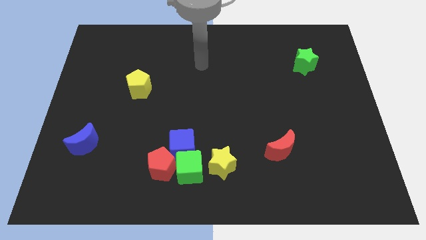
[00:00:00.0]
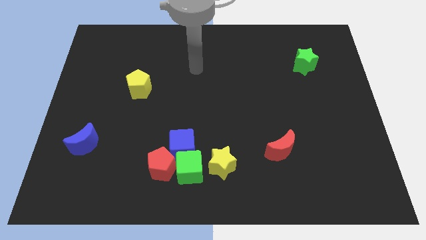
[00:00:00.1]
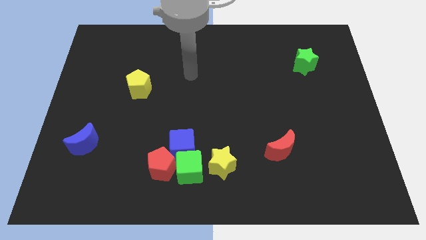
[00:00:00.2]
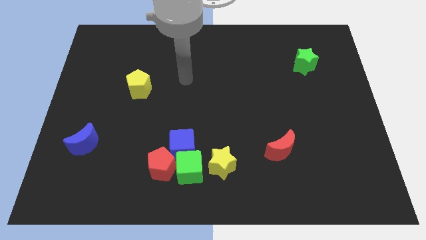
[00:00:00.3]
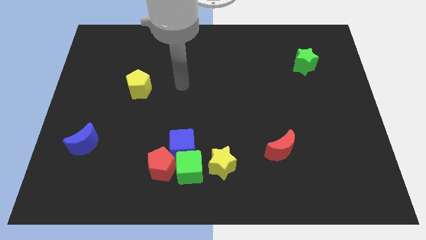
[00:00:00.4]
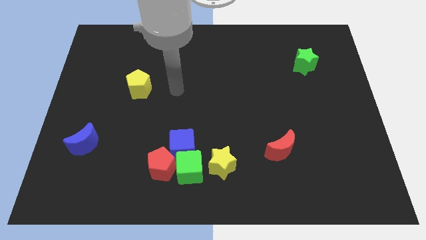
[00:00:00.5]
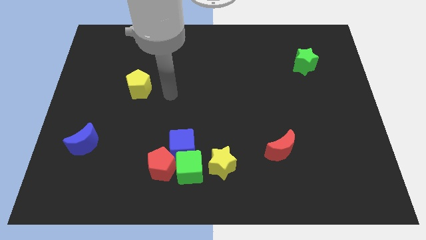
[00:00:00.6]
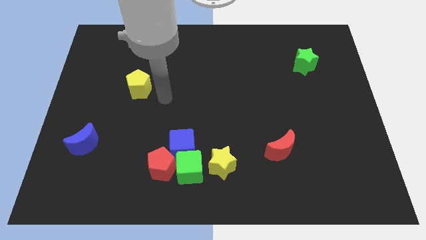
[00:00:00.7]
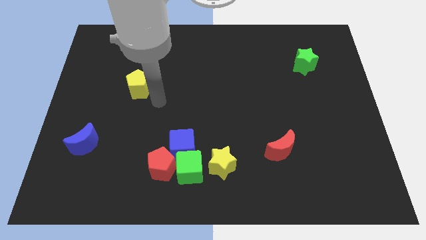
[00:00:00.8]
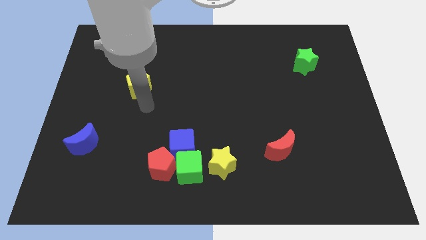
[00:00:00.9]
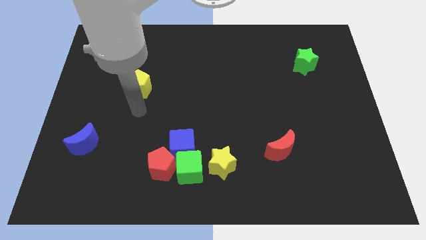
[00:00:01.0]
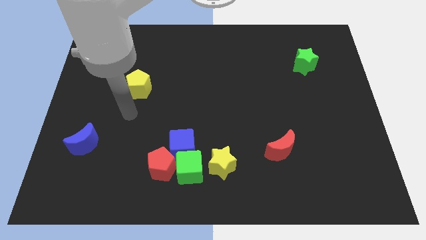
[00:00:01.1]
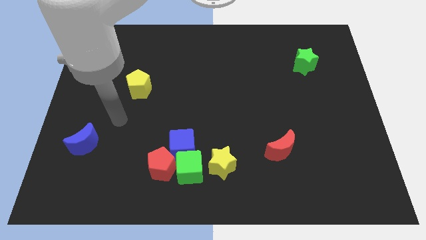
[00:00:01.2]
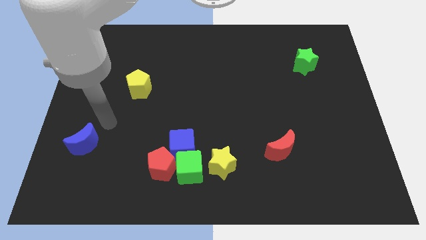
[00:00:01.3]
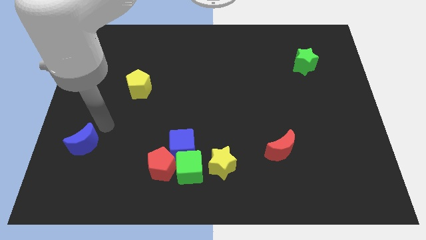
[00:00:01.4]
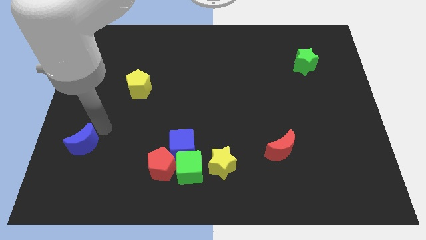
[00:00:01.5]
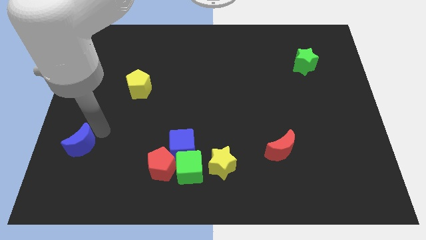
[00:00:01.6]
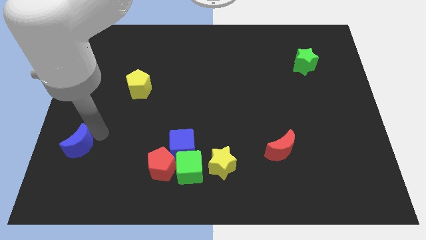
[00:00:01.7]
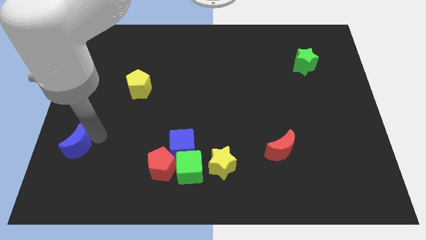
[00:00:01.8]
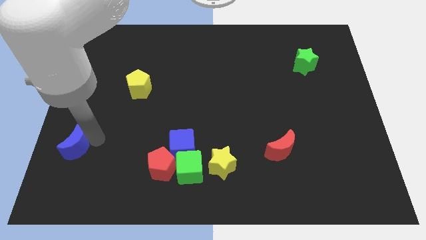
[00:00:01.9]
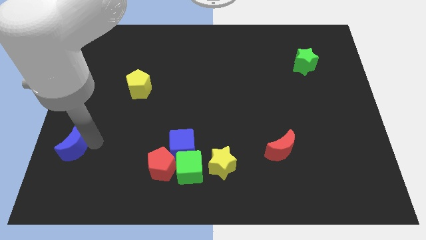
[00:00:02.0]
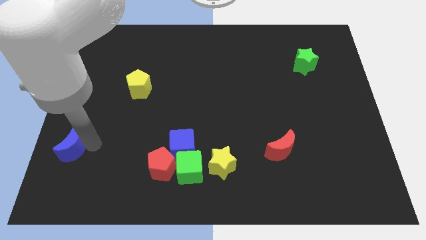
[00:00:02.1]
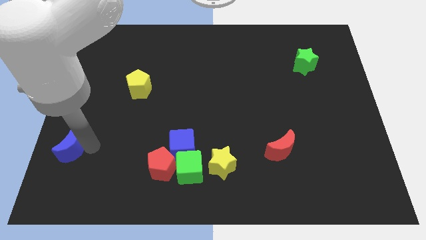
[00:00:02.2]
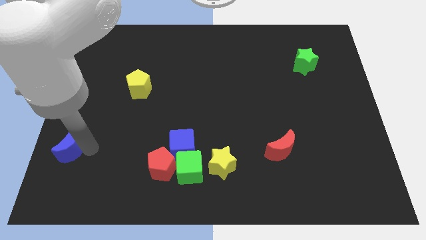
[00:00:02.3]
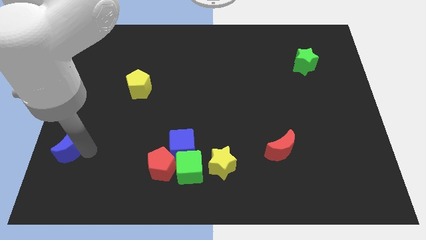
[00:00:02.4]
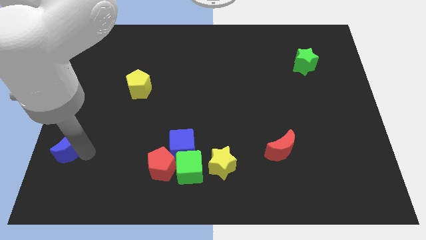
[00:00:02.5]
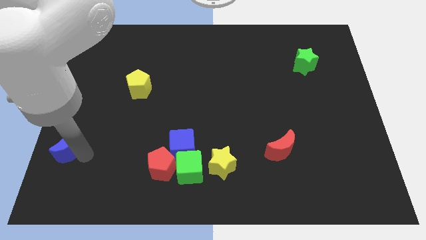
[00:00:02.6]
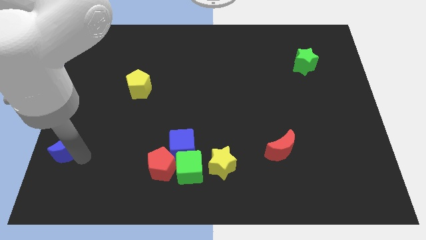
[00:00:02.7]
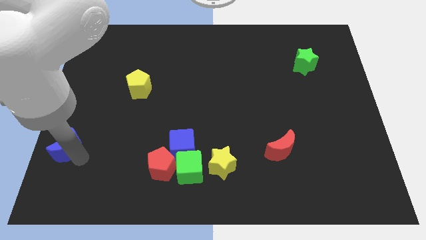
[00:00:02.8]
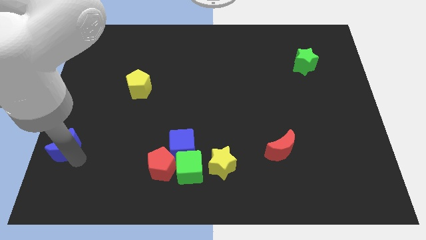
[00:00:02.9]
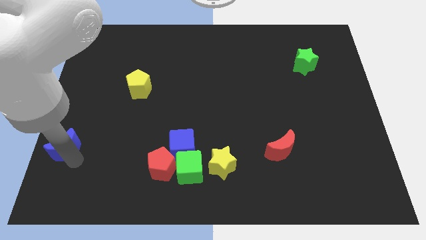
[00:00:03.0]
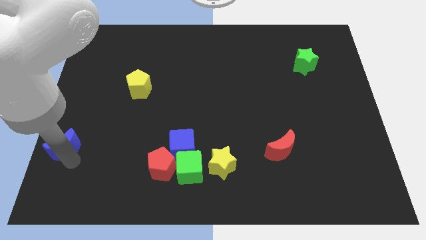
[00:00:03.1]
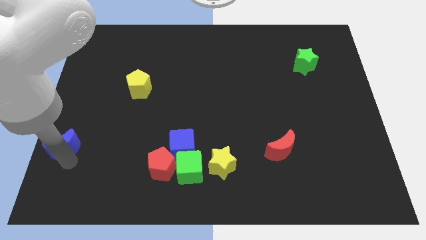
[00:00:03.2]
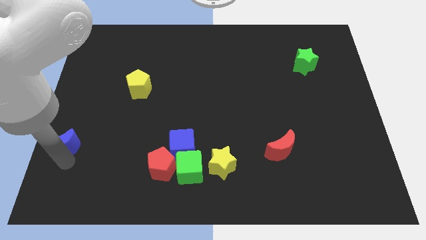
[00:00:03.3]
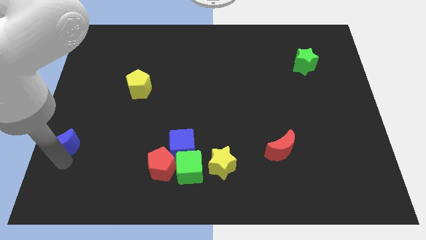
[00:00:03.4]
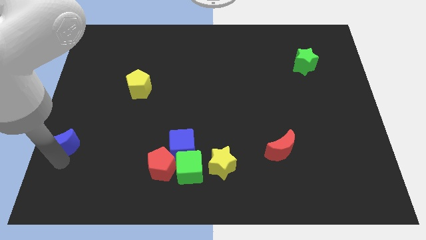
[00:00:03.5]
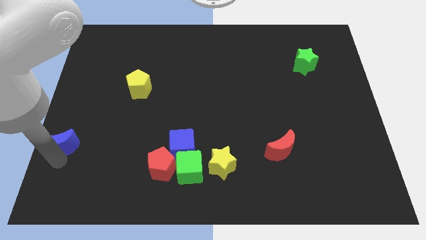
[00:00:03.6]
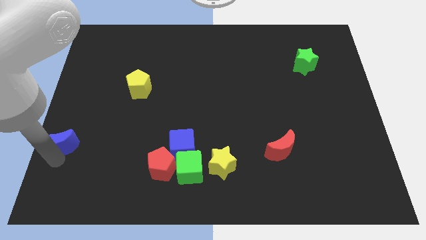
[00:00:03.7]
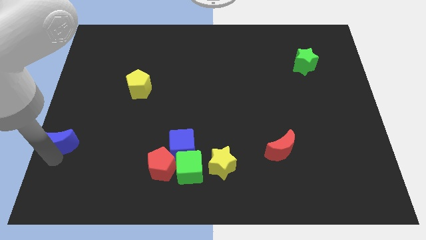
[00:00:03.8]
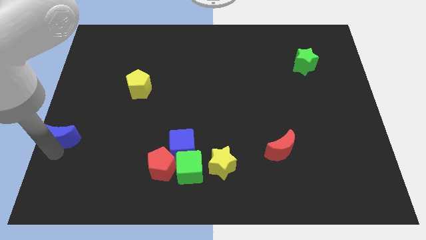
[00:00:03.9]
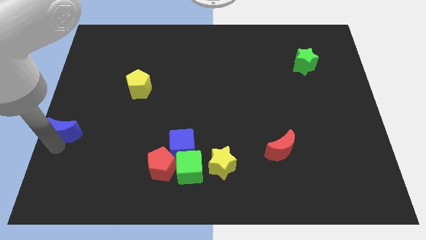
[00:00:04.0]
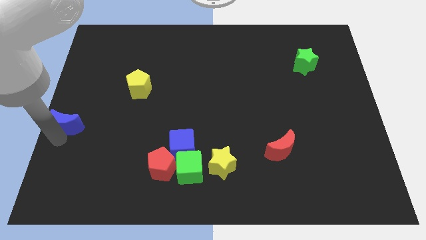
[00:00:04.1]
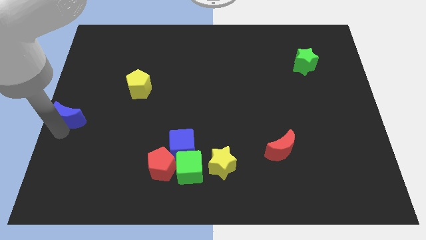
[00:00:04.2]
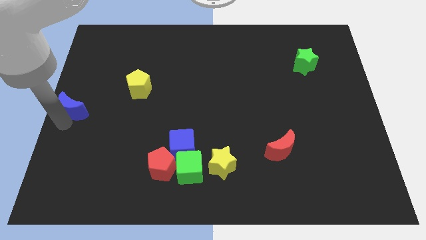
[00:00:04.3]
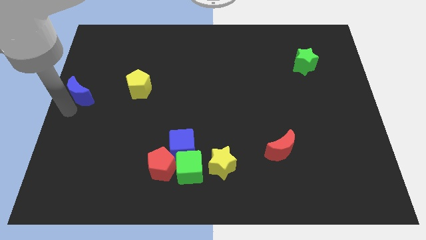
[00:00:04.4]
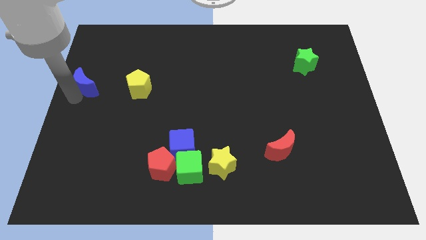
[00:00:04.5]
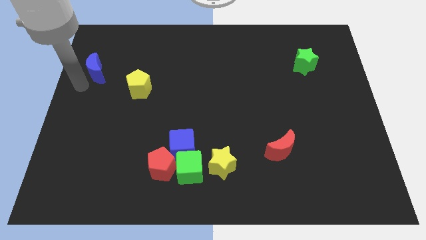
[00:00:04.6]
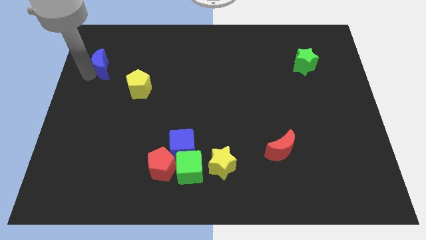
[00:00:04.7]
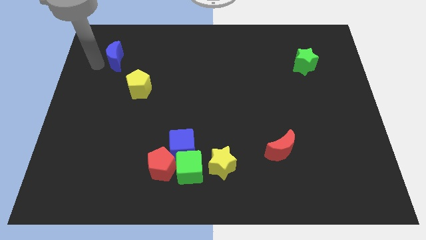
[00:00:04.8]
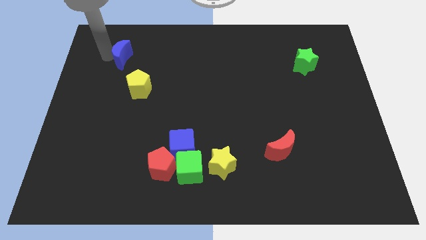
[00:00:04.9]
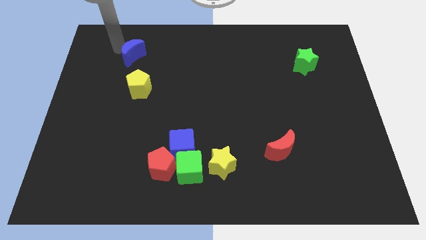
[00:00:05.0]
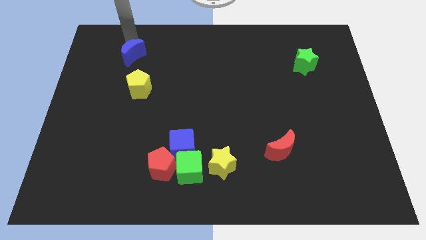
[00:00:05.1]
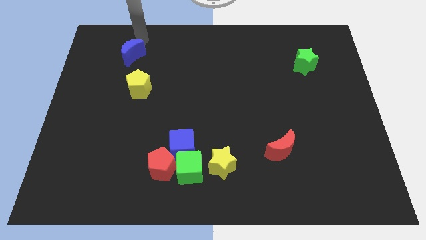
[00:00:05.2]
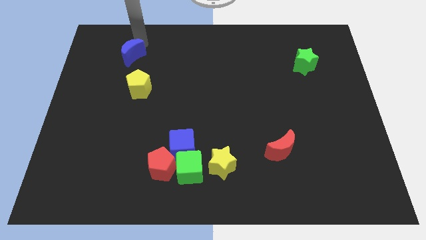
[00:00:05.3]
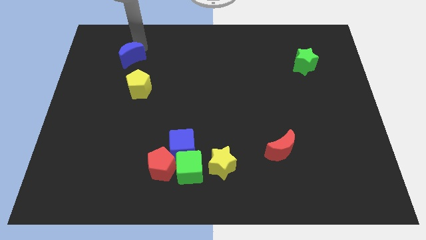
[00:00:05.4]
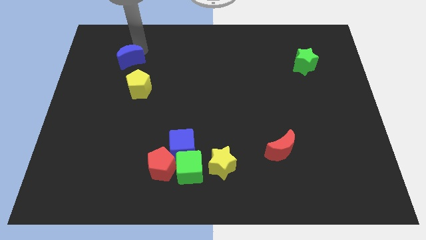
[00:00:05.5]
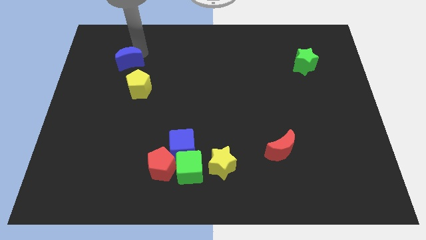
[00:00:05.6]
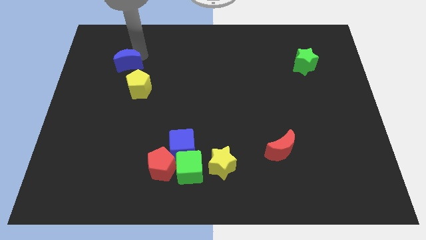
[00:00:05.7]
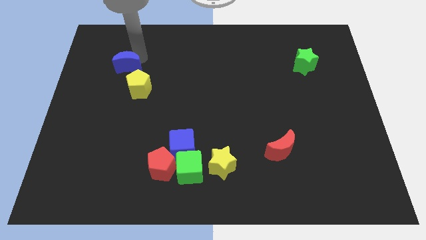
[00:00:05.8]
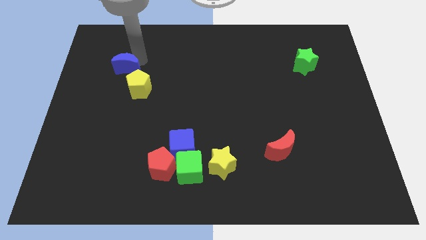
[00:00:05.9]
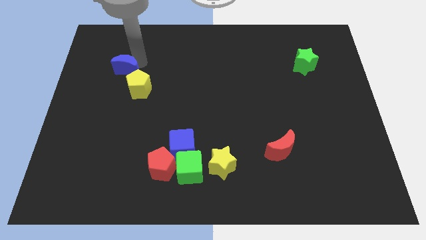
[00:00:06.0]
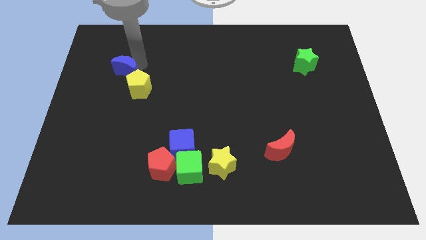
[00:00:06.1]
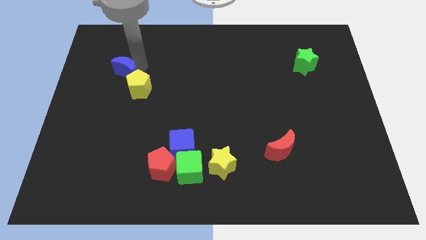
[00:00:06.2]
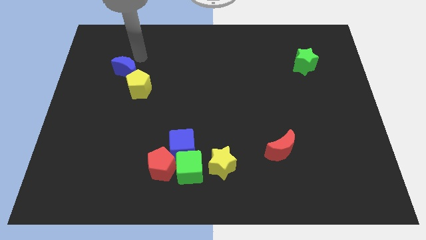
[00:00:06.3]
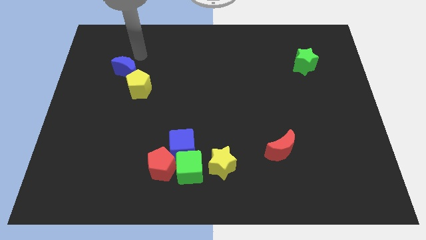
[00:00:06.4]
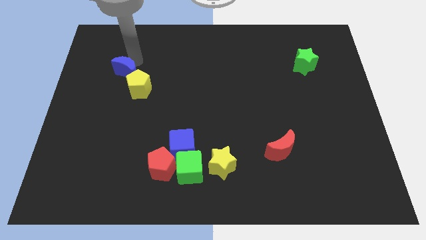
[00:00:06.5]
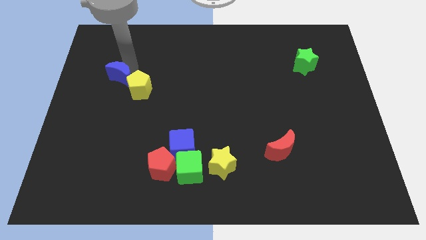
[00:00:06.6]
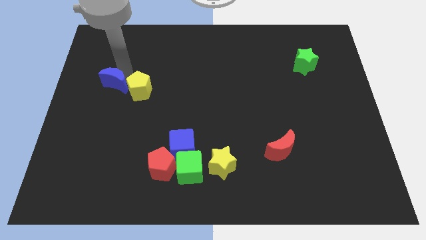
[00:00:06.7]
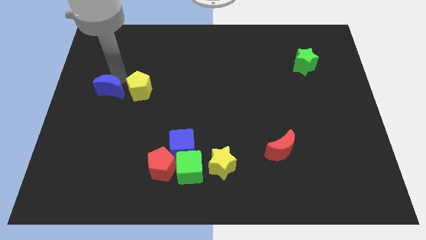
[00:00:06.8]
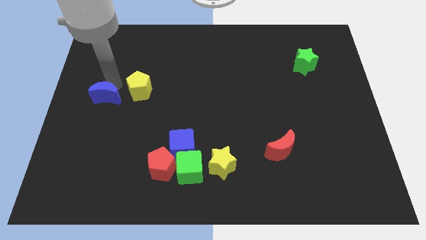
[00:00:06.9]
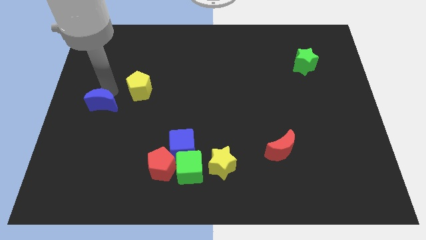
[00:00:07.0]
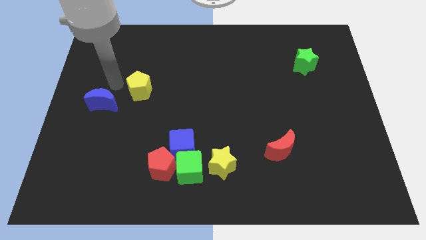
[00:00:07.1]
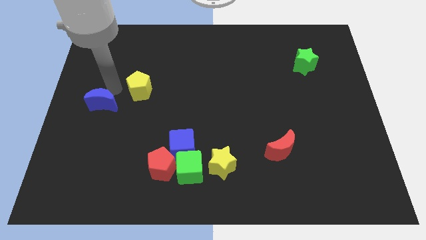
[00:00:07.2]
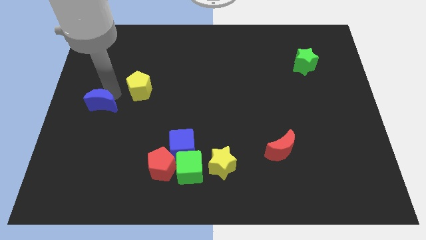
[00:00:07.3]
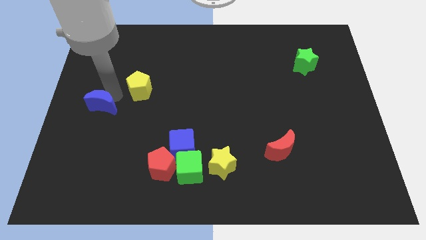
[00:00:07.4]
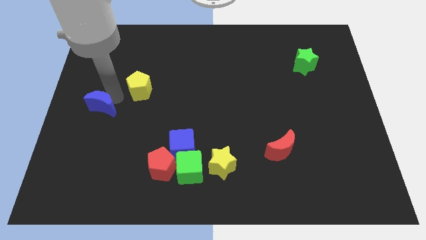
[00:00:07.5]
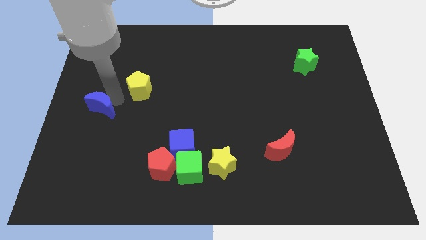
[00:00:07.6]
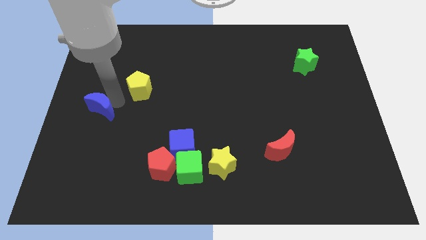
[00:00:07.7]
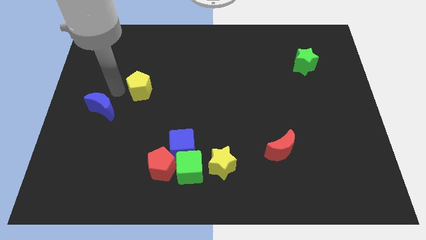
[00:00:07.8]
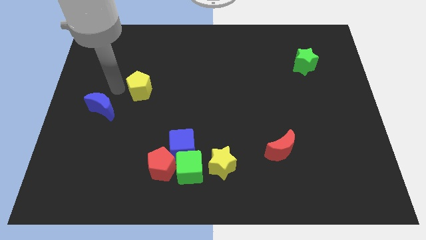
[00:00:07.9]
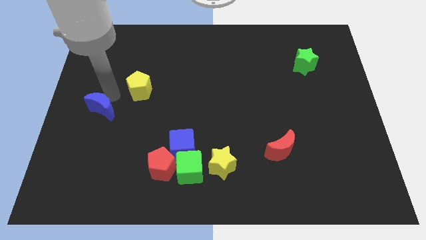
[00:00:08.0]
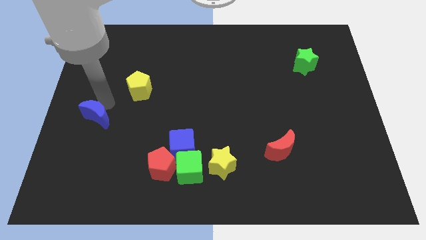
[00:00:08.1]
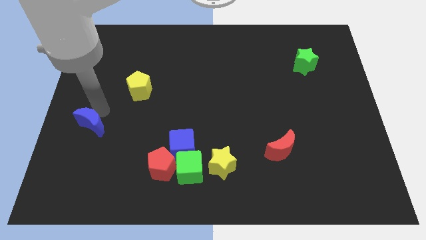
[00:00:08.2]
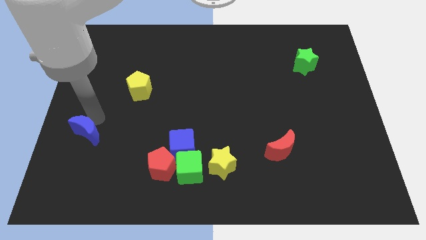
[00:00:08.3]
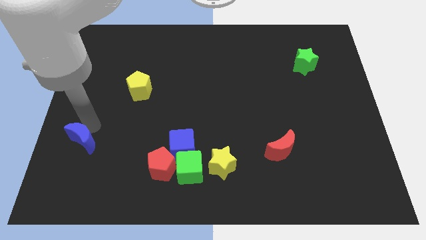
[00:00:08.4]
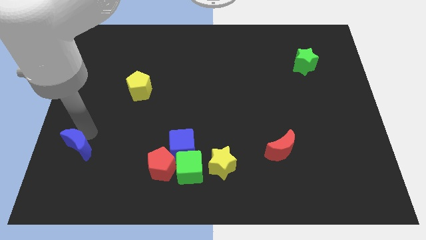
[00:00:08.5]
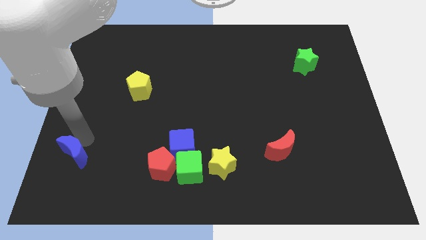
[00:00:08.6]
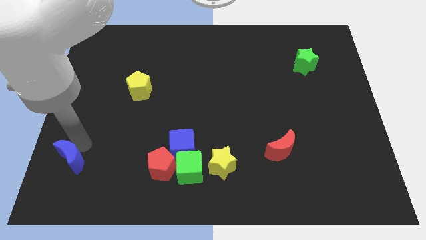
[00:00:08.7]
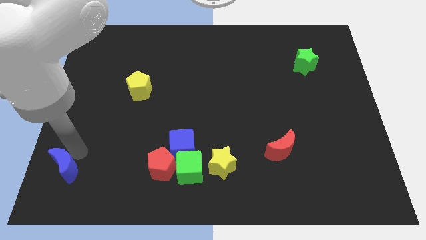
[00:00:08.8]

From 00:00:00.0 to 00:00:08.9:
slide the blue moon to the bottom left of the board
